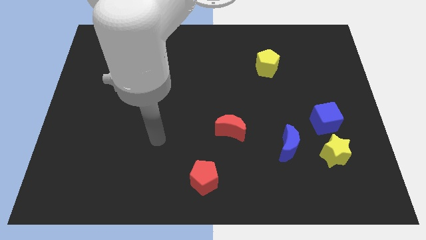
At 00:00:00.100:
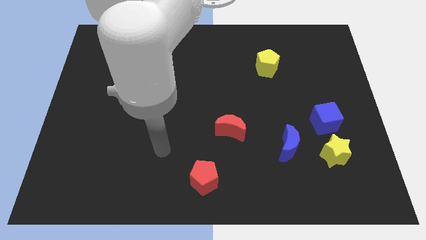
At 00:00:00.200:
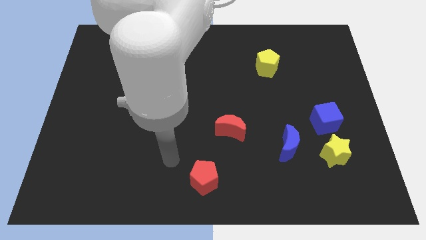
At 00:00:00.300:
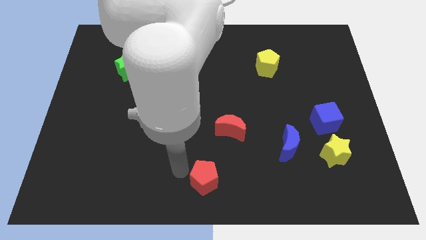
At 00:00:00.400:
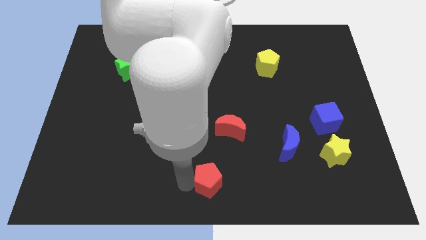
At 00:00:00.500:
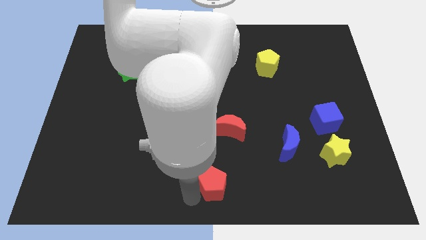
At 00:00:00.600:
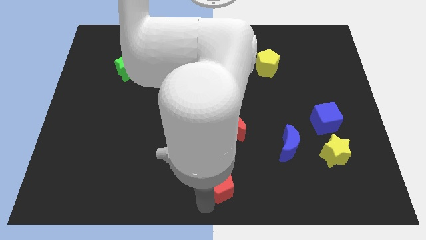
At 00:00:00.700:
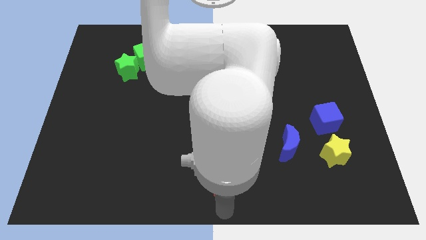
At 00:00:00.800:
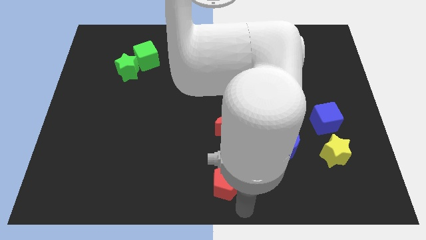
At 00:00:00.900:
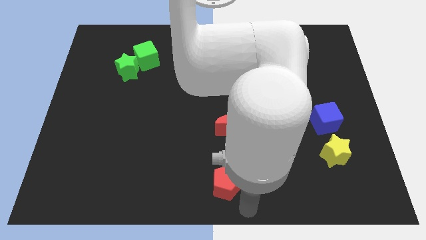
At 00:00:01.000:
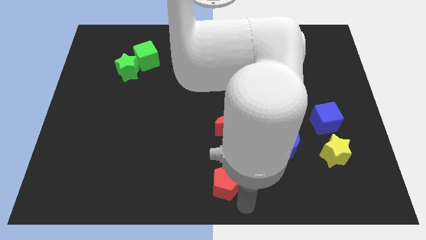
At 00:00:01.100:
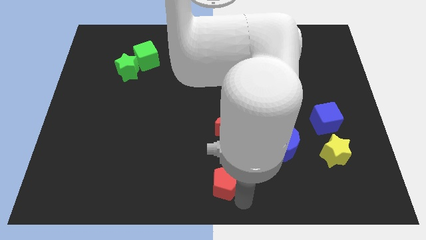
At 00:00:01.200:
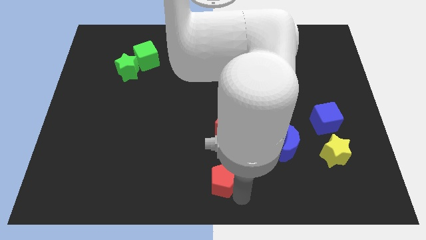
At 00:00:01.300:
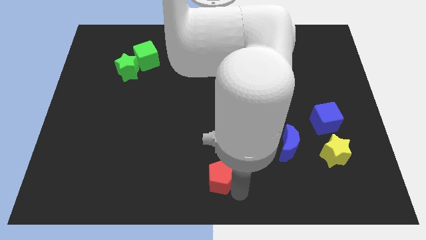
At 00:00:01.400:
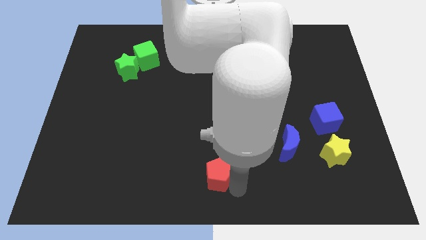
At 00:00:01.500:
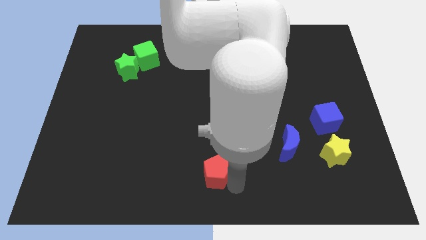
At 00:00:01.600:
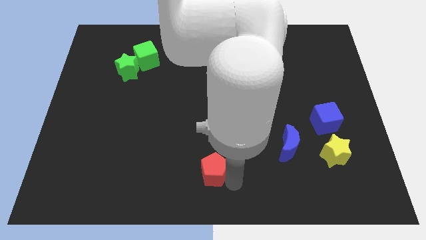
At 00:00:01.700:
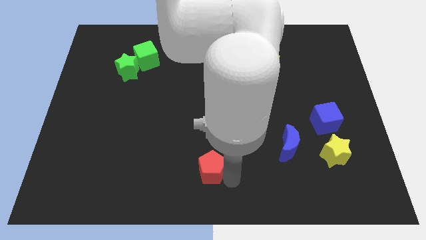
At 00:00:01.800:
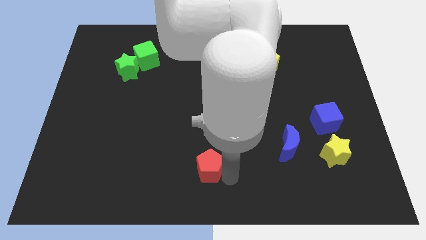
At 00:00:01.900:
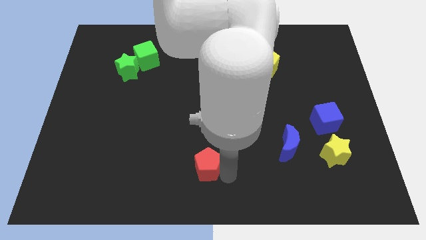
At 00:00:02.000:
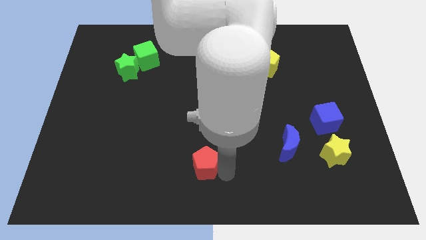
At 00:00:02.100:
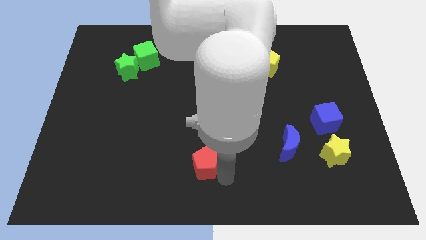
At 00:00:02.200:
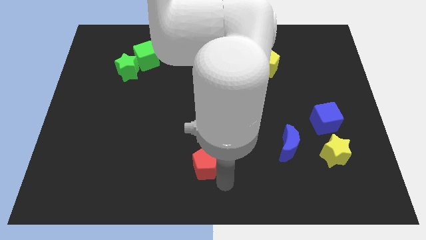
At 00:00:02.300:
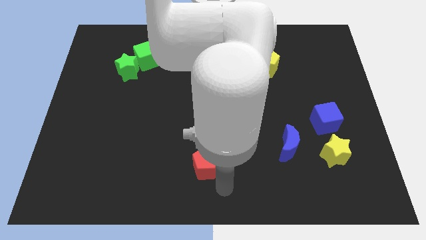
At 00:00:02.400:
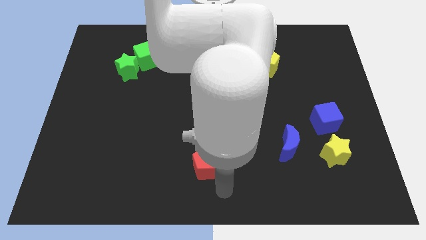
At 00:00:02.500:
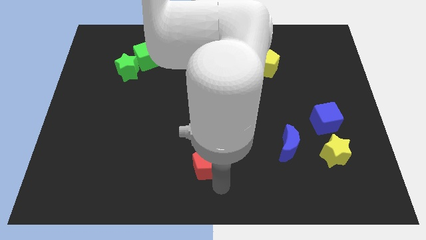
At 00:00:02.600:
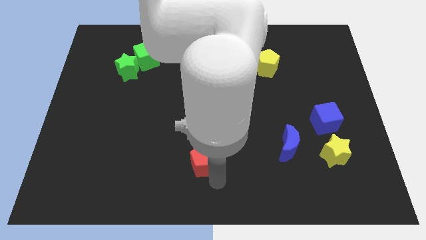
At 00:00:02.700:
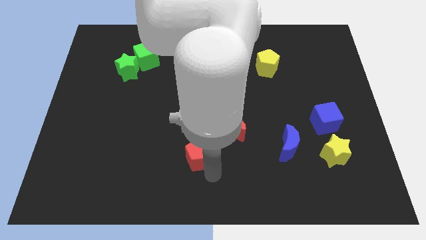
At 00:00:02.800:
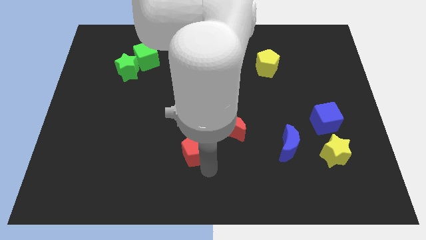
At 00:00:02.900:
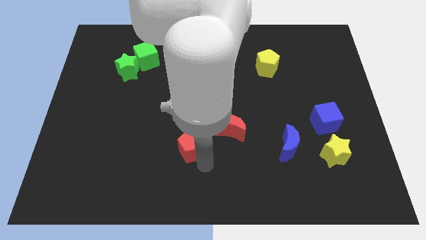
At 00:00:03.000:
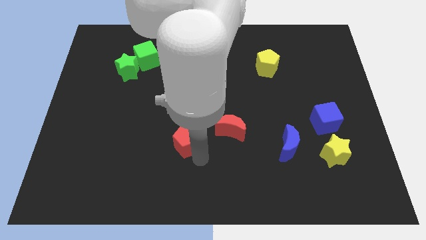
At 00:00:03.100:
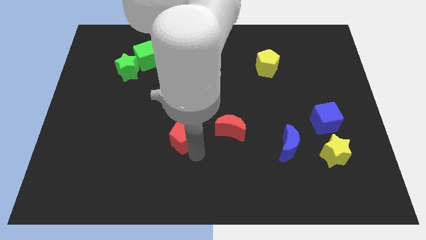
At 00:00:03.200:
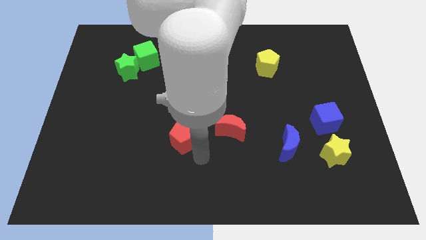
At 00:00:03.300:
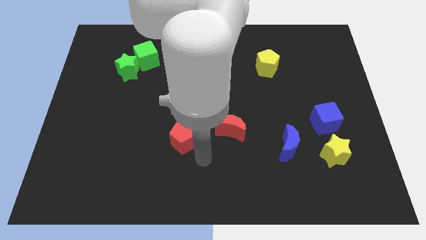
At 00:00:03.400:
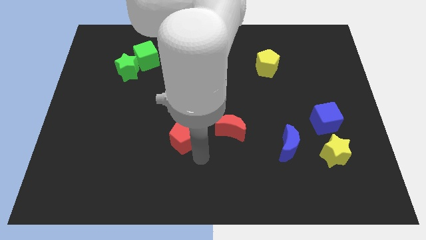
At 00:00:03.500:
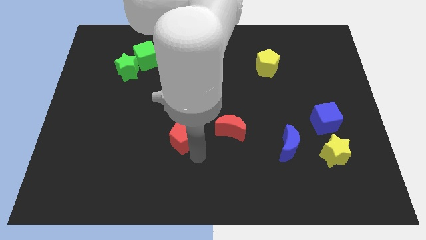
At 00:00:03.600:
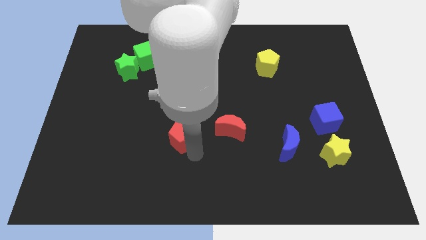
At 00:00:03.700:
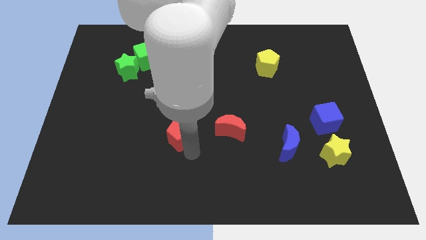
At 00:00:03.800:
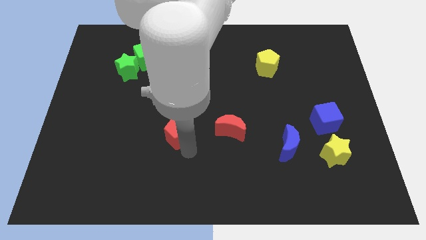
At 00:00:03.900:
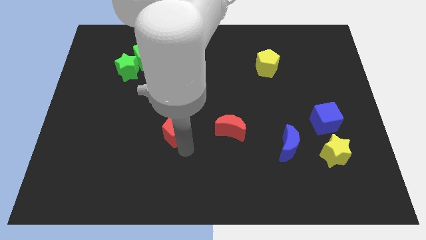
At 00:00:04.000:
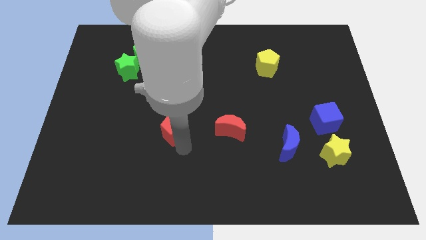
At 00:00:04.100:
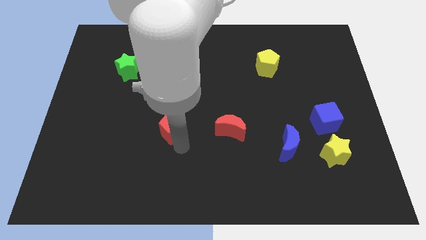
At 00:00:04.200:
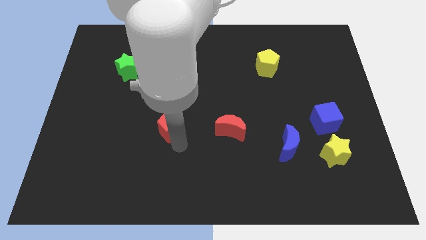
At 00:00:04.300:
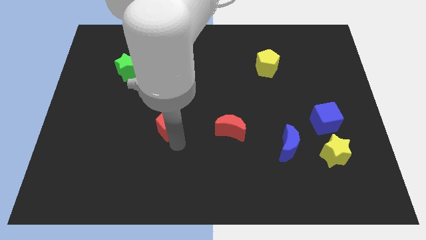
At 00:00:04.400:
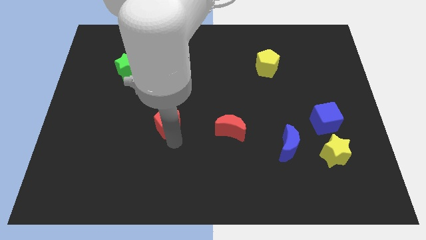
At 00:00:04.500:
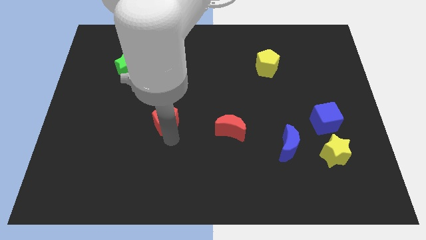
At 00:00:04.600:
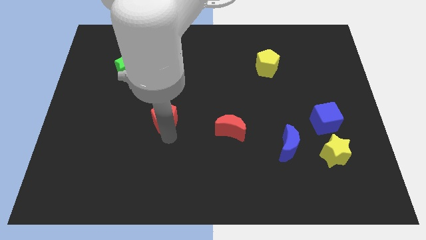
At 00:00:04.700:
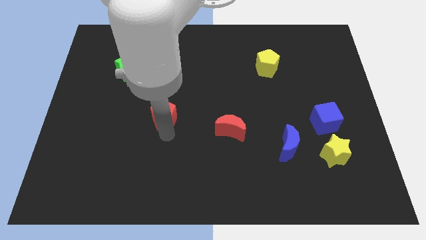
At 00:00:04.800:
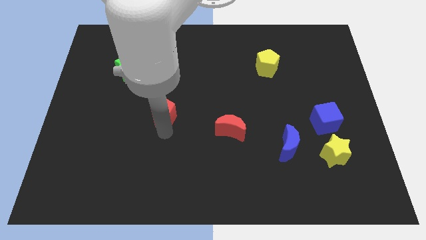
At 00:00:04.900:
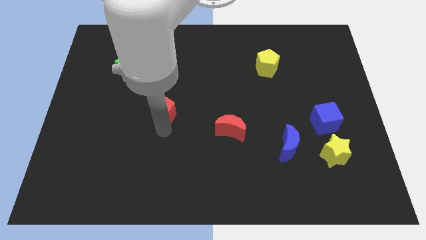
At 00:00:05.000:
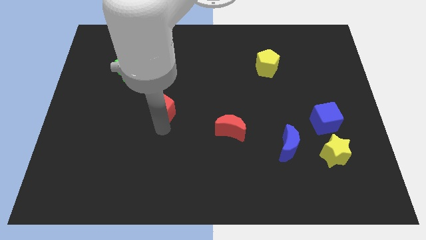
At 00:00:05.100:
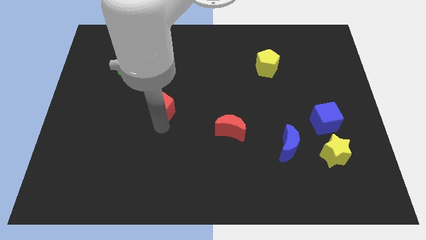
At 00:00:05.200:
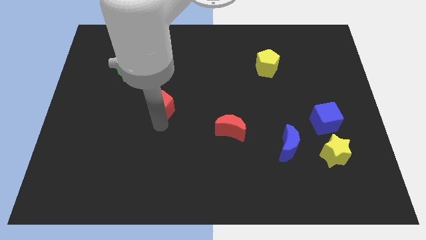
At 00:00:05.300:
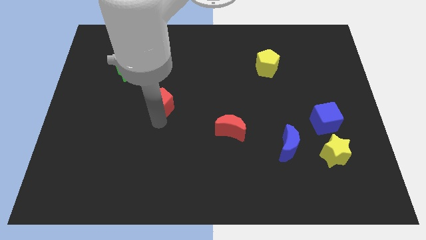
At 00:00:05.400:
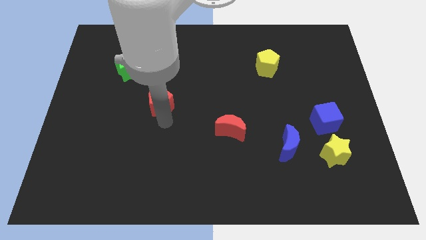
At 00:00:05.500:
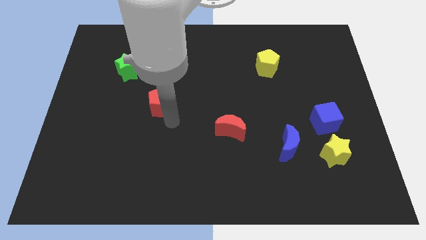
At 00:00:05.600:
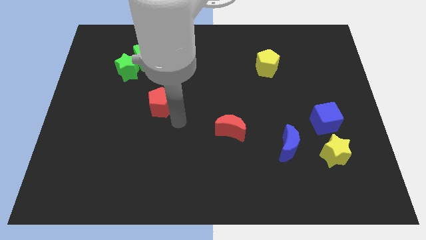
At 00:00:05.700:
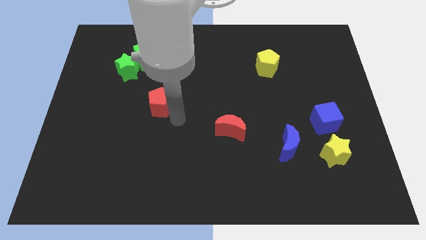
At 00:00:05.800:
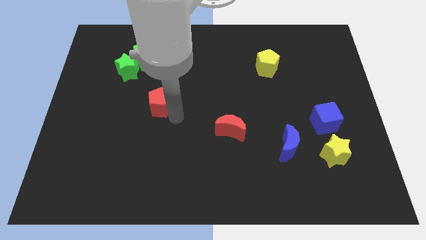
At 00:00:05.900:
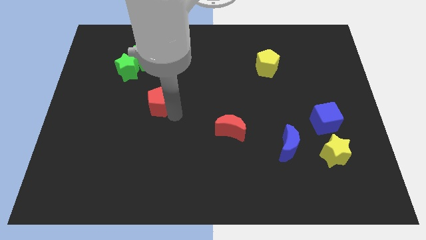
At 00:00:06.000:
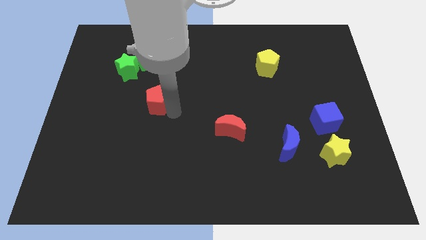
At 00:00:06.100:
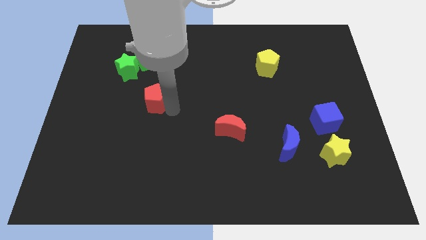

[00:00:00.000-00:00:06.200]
push the red pentagon below the green cube

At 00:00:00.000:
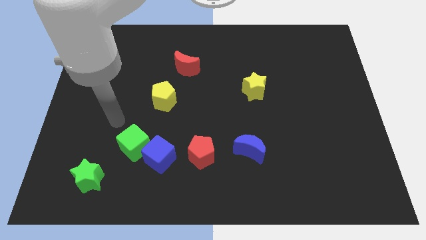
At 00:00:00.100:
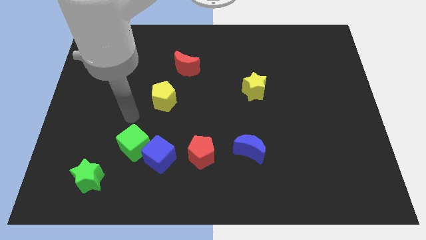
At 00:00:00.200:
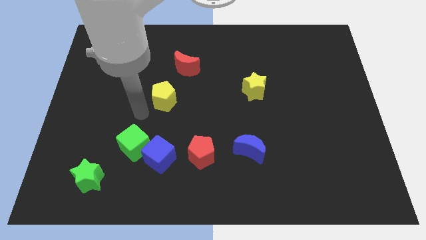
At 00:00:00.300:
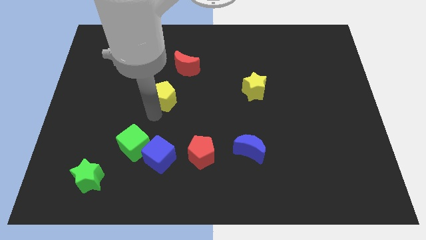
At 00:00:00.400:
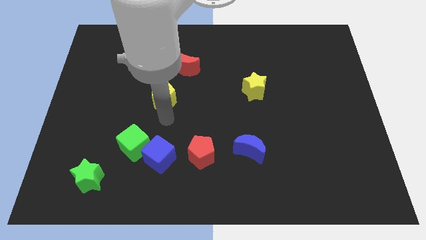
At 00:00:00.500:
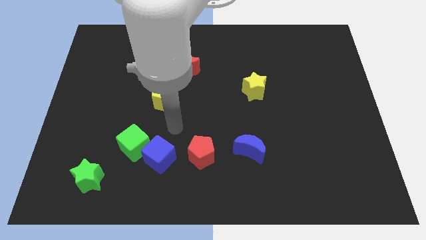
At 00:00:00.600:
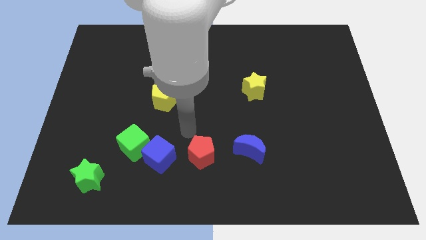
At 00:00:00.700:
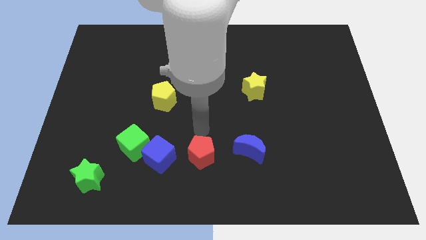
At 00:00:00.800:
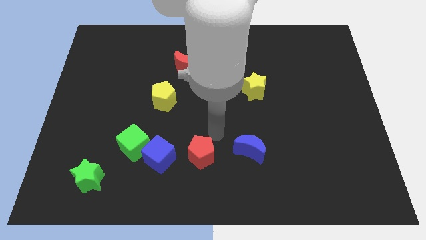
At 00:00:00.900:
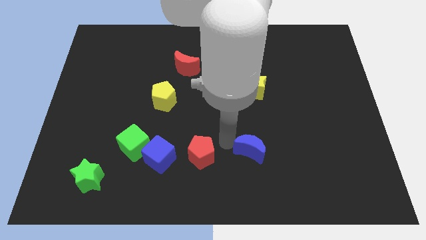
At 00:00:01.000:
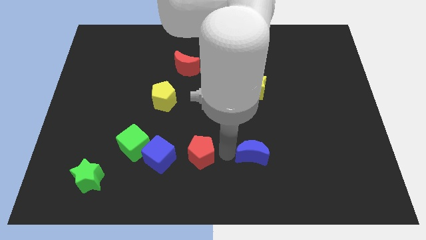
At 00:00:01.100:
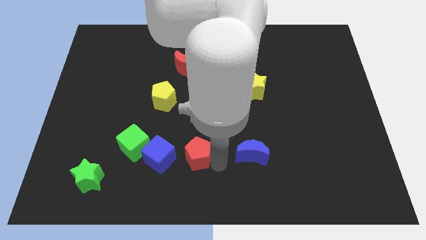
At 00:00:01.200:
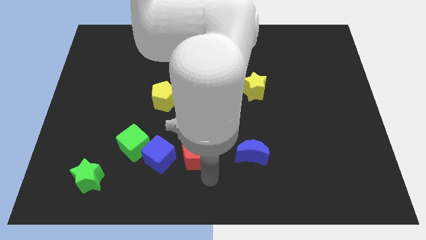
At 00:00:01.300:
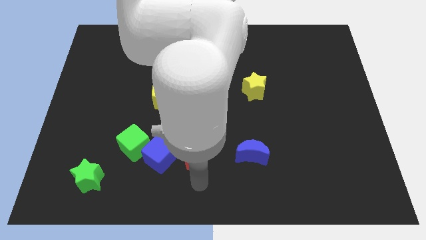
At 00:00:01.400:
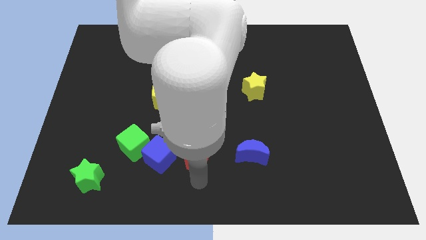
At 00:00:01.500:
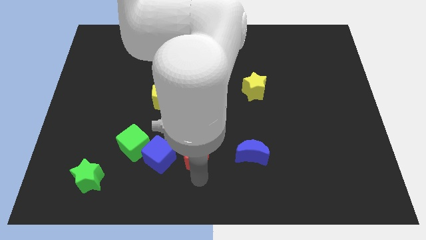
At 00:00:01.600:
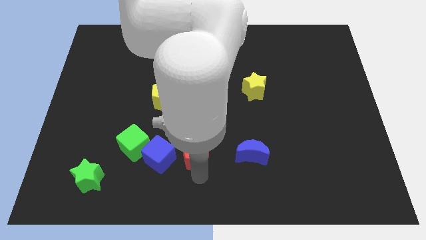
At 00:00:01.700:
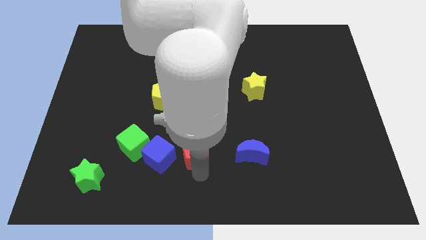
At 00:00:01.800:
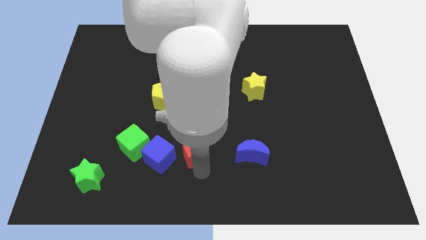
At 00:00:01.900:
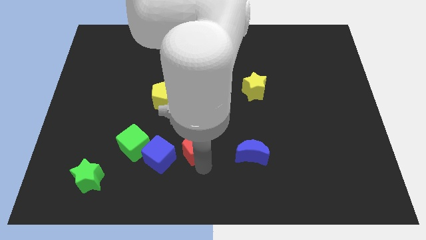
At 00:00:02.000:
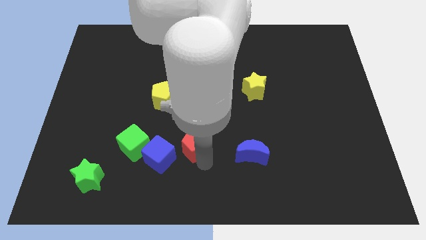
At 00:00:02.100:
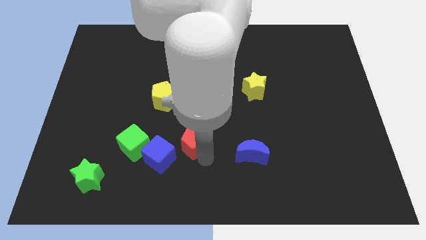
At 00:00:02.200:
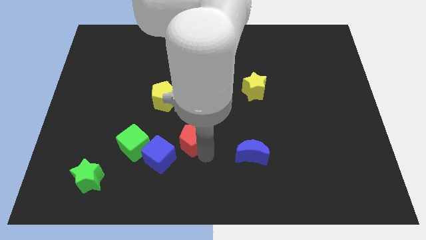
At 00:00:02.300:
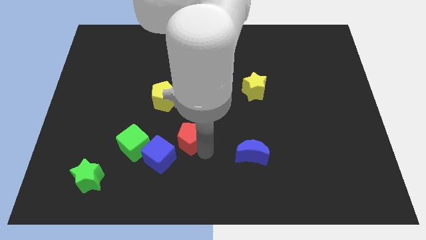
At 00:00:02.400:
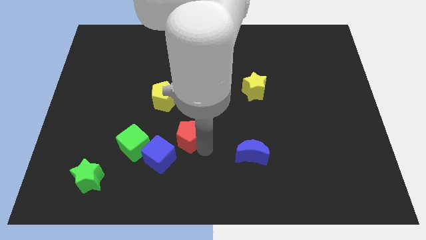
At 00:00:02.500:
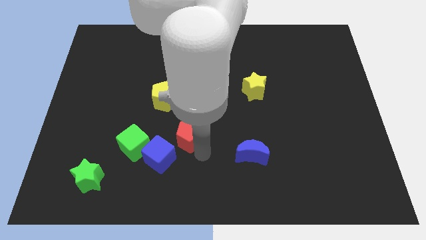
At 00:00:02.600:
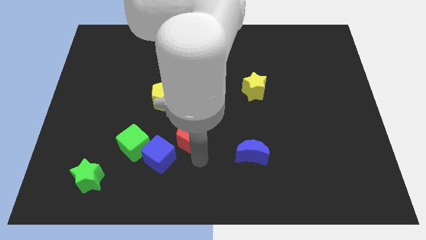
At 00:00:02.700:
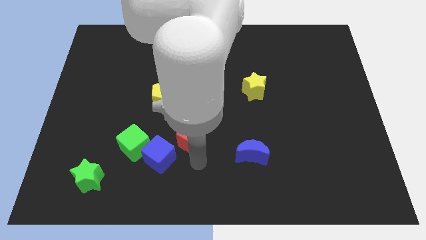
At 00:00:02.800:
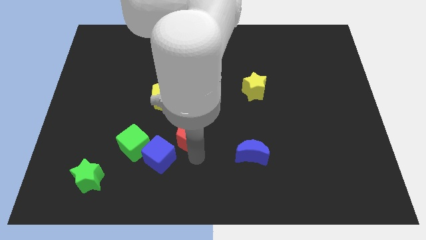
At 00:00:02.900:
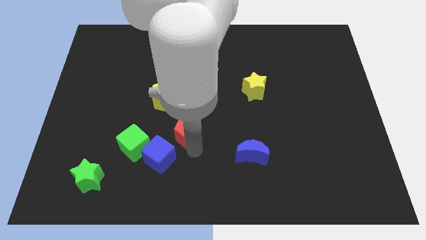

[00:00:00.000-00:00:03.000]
push the red pentagon diagonally down and to the right of the yellow pentagon
